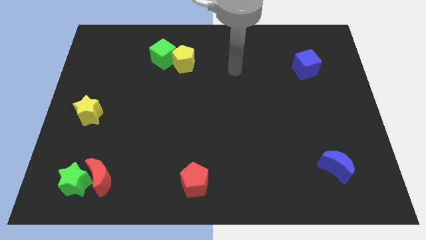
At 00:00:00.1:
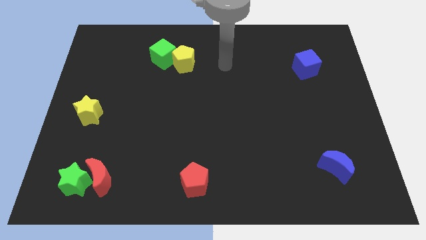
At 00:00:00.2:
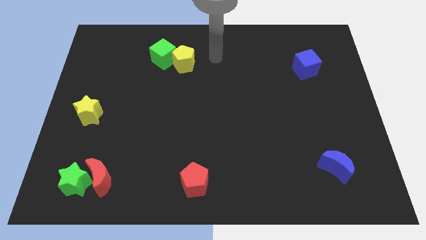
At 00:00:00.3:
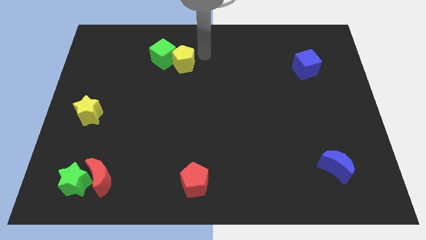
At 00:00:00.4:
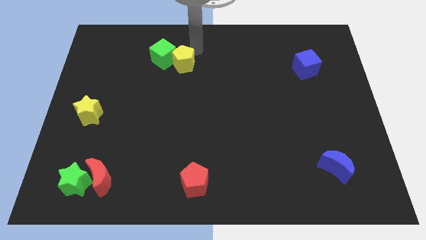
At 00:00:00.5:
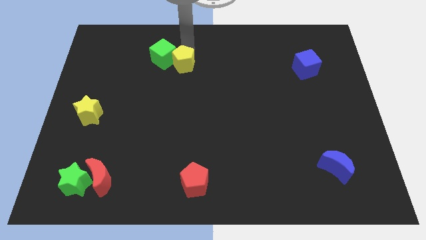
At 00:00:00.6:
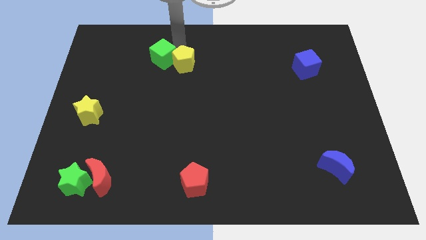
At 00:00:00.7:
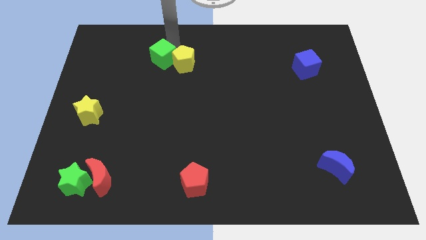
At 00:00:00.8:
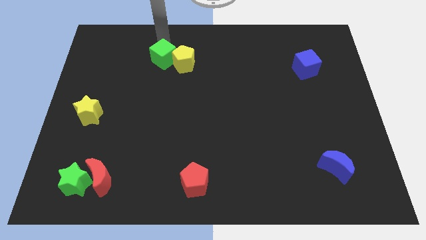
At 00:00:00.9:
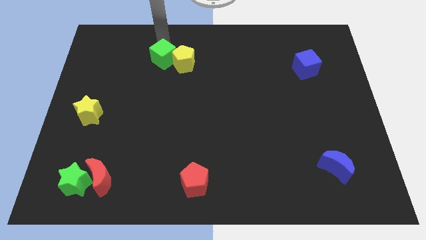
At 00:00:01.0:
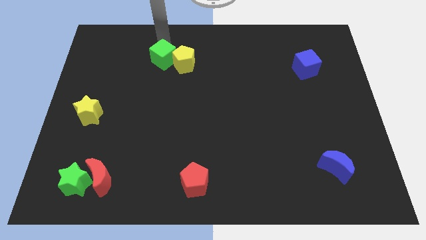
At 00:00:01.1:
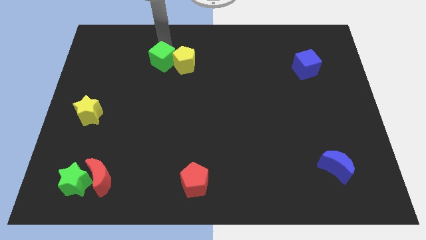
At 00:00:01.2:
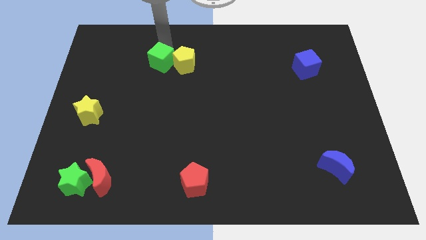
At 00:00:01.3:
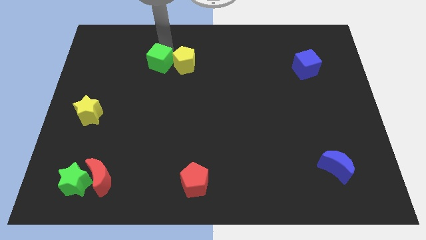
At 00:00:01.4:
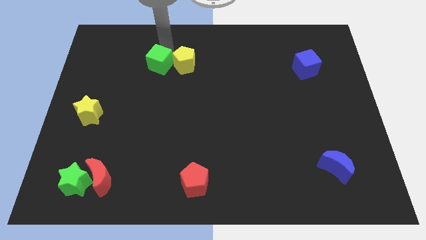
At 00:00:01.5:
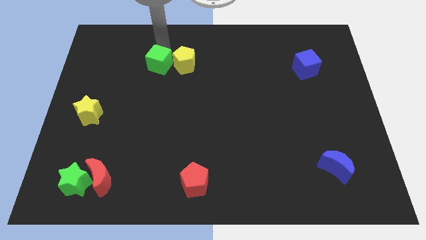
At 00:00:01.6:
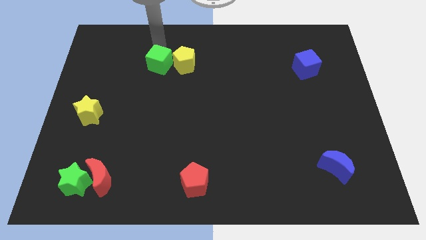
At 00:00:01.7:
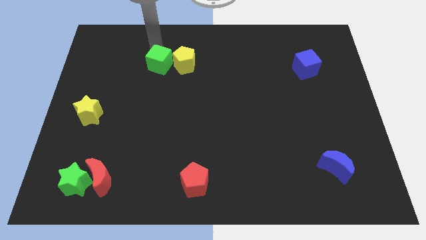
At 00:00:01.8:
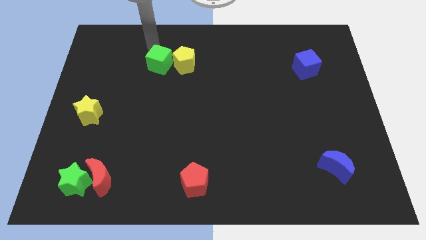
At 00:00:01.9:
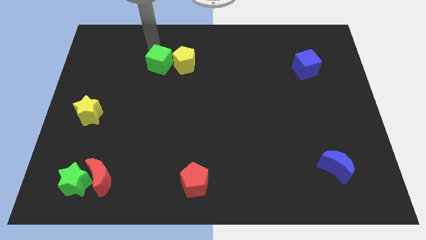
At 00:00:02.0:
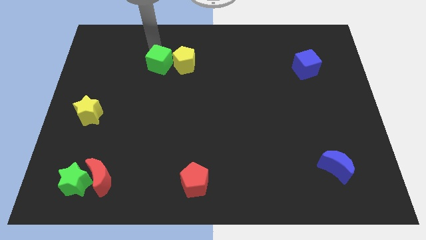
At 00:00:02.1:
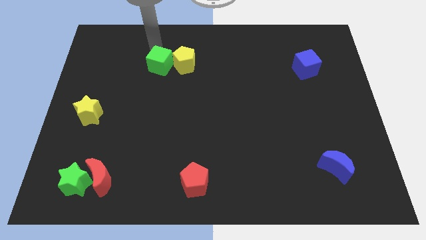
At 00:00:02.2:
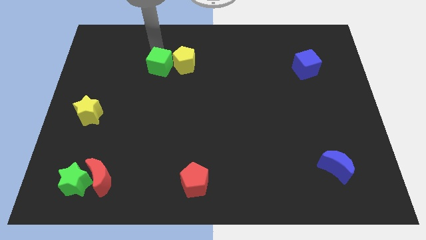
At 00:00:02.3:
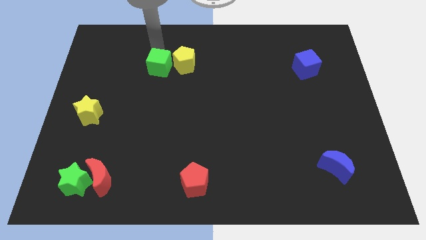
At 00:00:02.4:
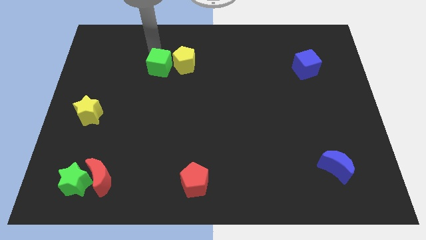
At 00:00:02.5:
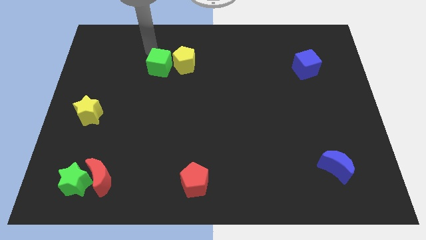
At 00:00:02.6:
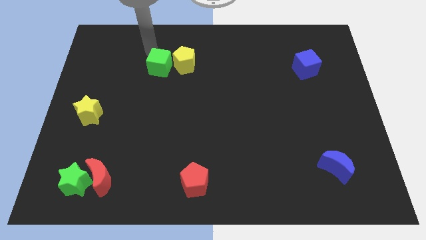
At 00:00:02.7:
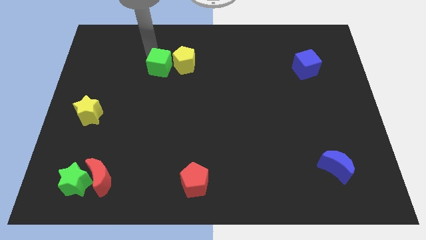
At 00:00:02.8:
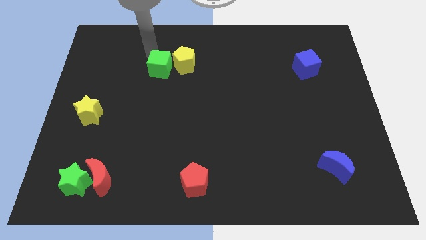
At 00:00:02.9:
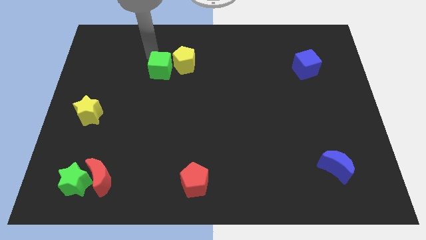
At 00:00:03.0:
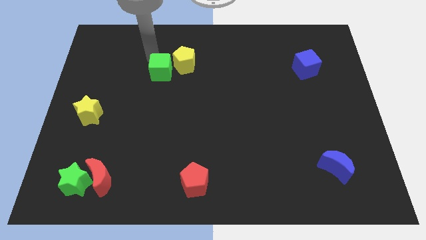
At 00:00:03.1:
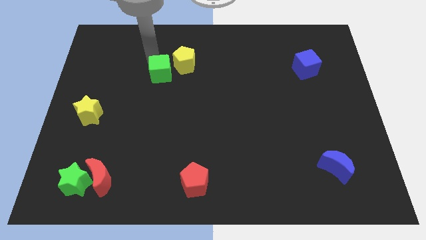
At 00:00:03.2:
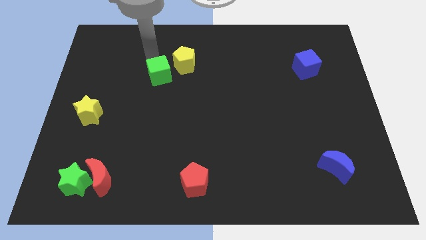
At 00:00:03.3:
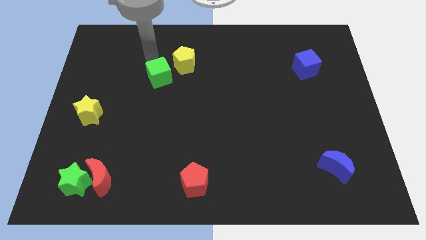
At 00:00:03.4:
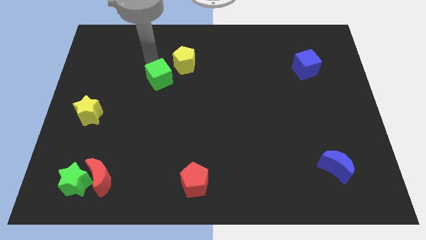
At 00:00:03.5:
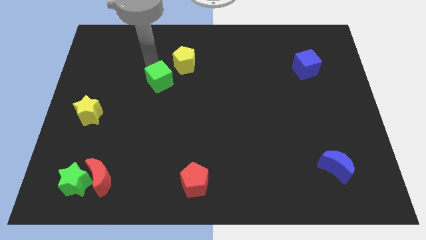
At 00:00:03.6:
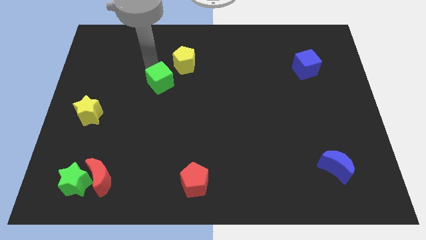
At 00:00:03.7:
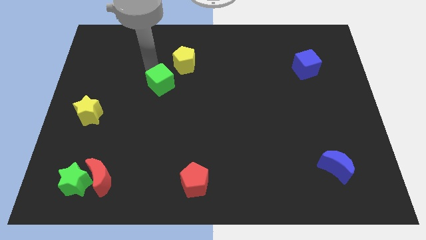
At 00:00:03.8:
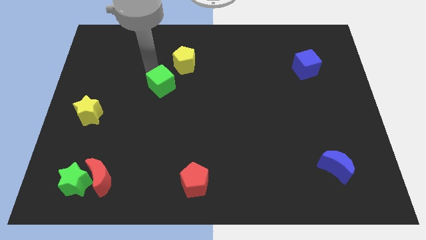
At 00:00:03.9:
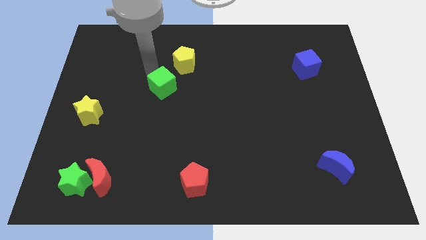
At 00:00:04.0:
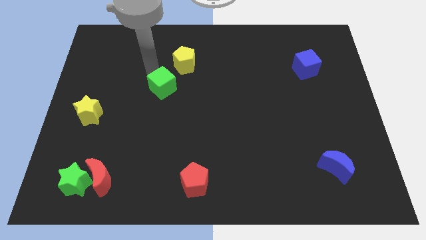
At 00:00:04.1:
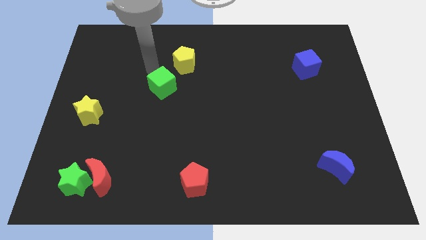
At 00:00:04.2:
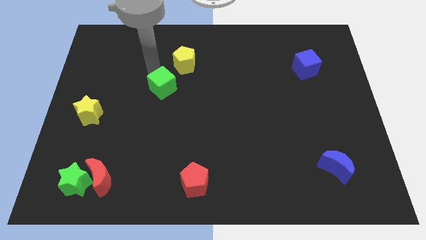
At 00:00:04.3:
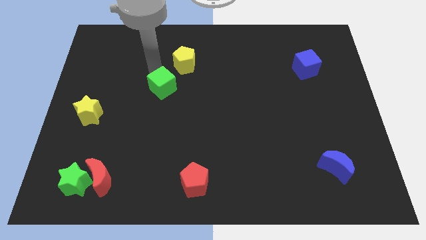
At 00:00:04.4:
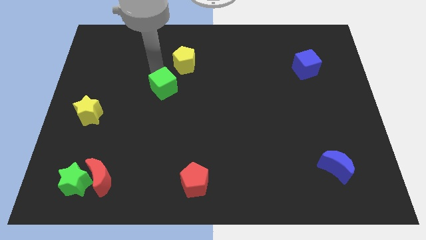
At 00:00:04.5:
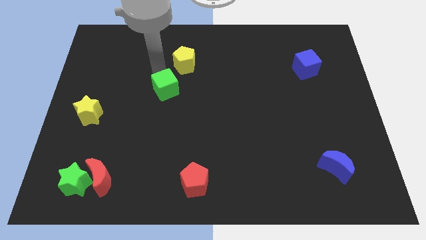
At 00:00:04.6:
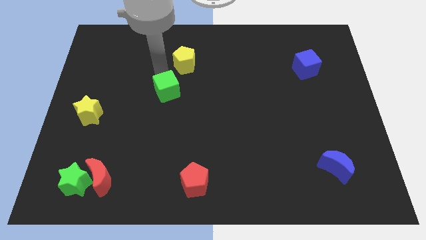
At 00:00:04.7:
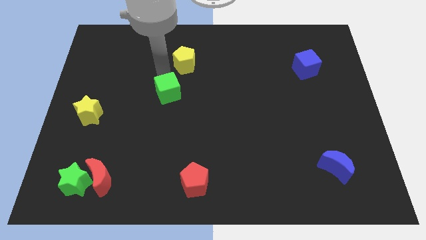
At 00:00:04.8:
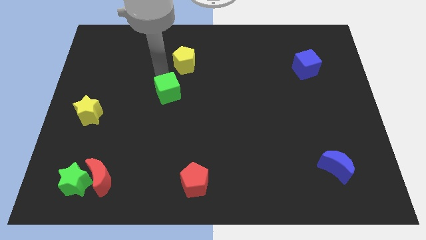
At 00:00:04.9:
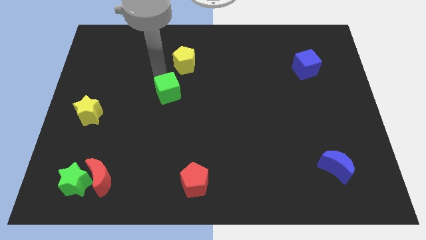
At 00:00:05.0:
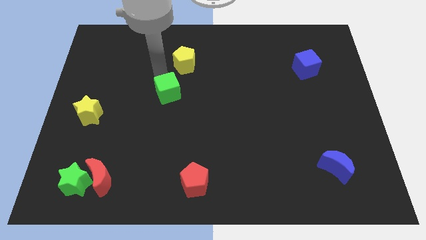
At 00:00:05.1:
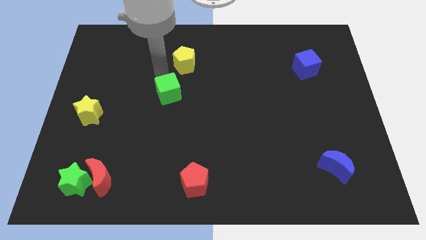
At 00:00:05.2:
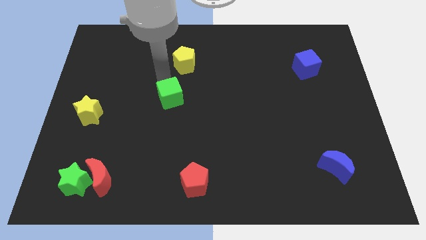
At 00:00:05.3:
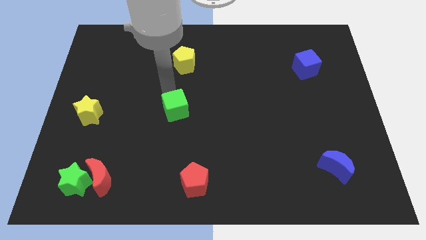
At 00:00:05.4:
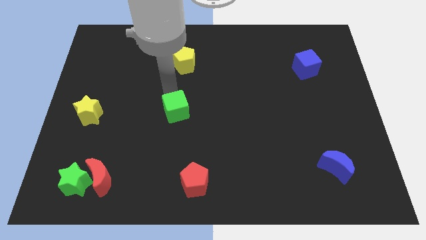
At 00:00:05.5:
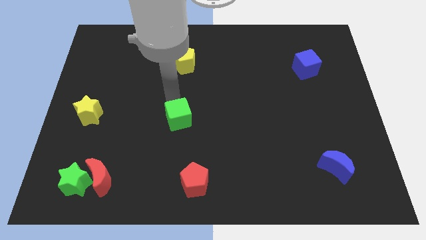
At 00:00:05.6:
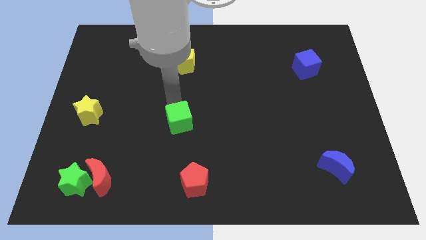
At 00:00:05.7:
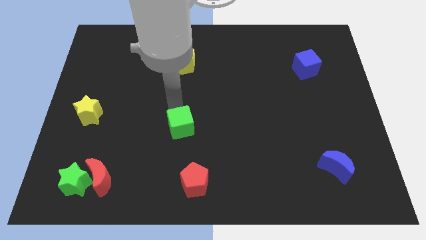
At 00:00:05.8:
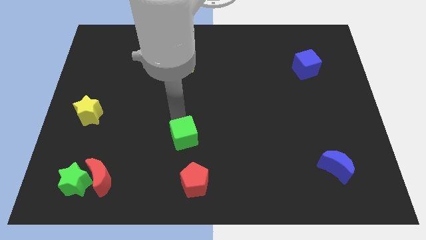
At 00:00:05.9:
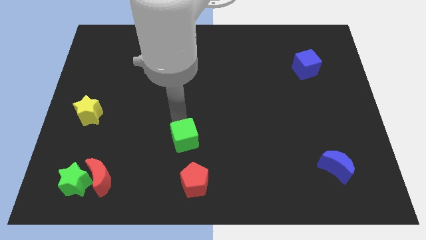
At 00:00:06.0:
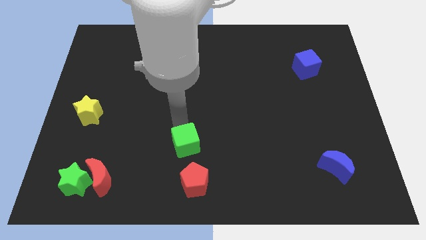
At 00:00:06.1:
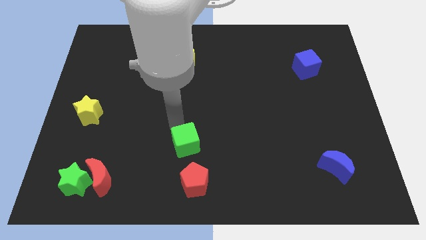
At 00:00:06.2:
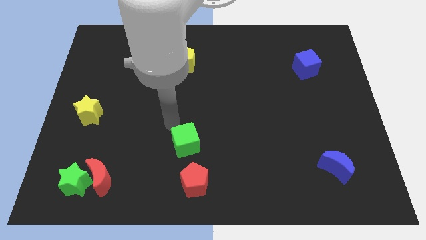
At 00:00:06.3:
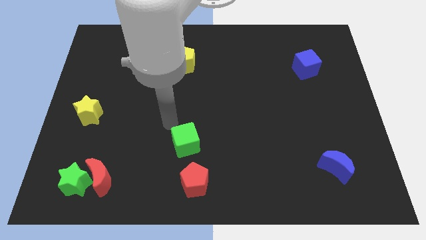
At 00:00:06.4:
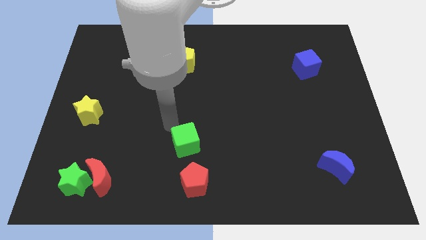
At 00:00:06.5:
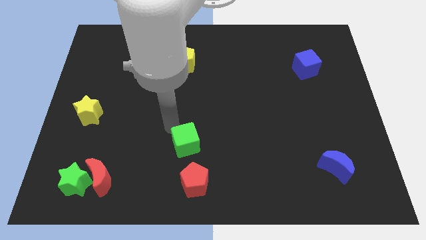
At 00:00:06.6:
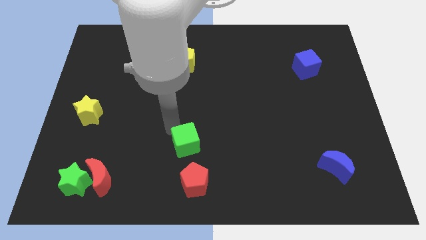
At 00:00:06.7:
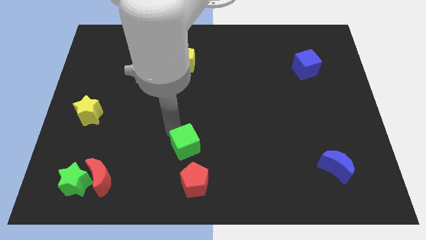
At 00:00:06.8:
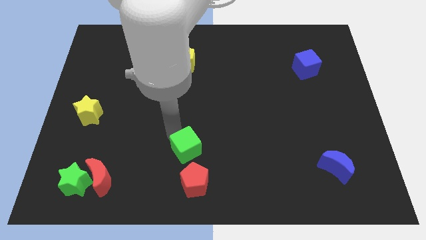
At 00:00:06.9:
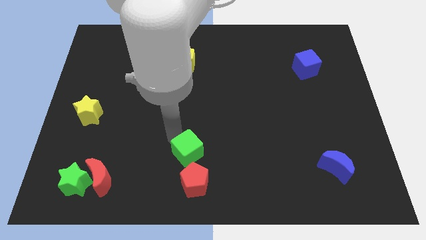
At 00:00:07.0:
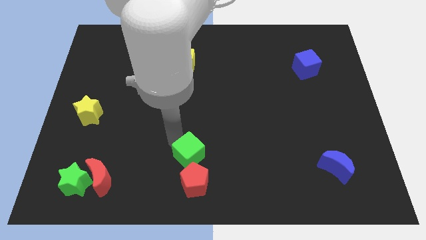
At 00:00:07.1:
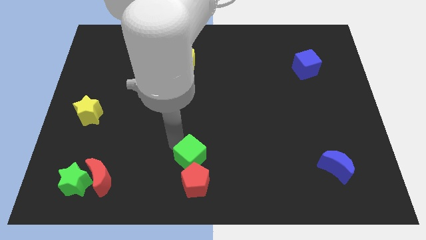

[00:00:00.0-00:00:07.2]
slide the green cube to the bottom side
